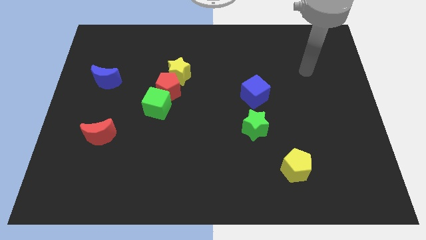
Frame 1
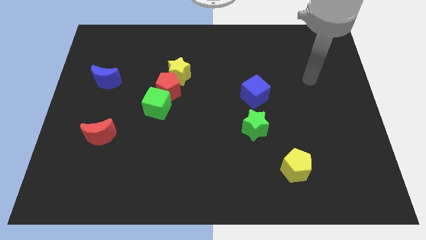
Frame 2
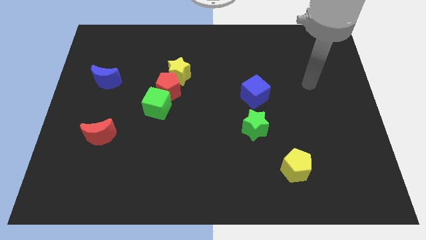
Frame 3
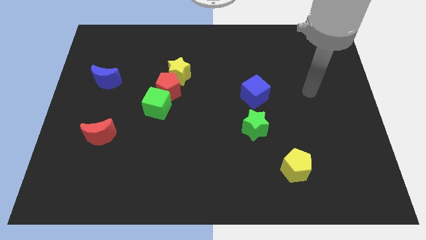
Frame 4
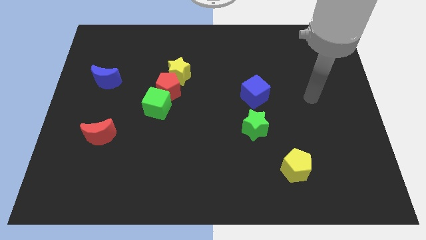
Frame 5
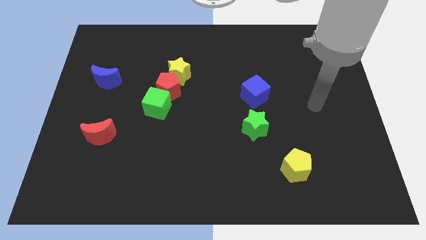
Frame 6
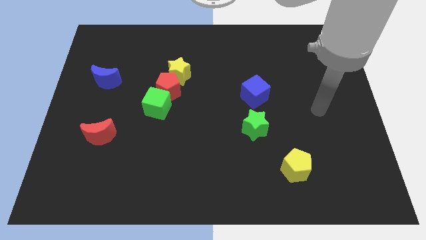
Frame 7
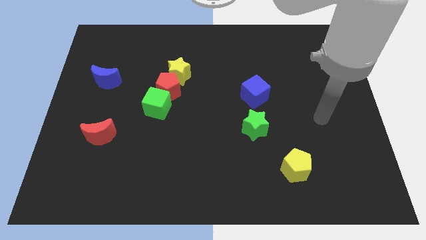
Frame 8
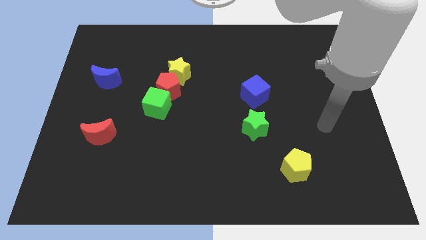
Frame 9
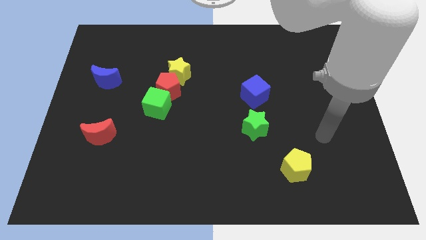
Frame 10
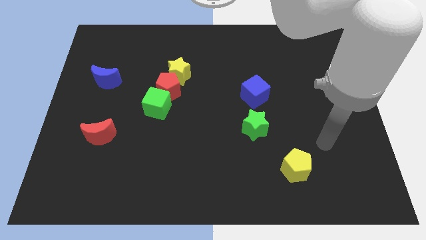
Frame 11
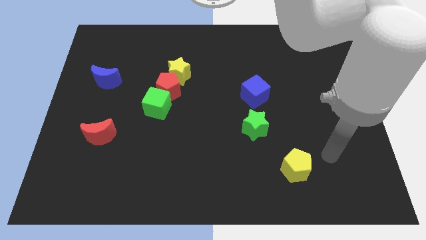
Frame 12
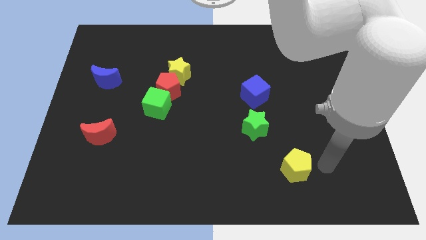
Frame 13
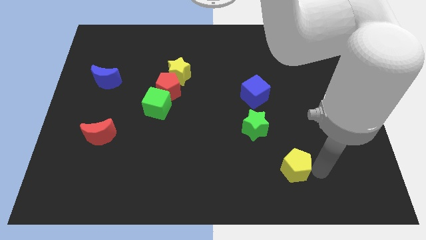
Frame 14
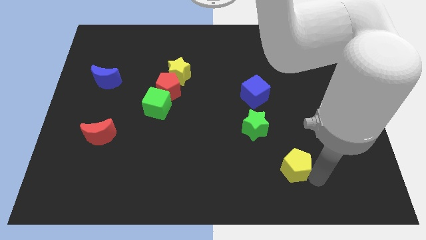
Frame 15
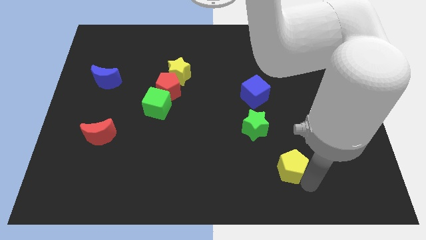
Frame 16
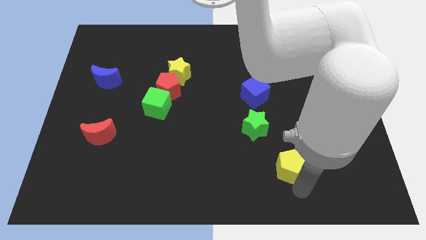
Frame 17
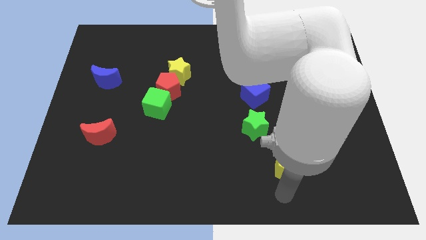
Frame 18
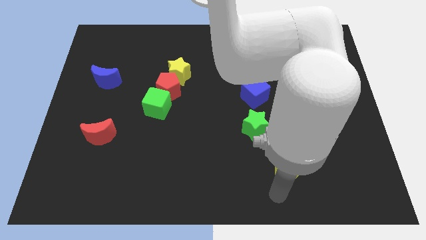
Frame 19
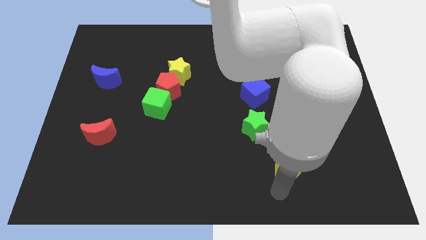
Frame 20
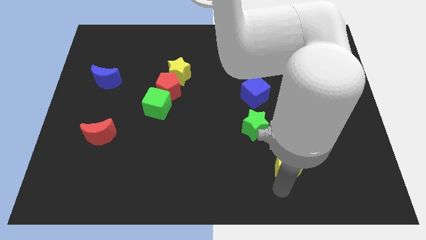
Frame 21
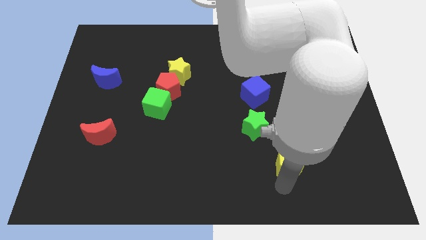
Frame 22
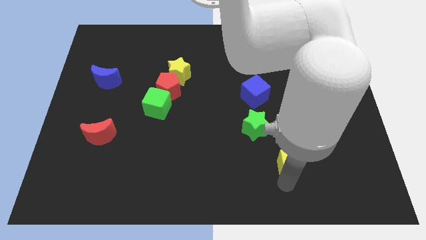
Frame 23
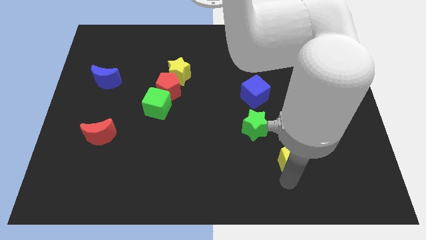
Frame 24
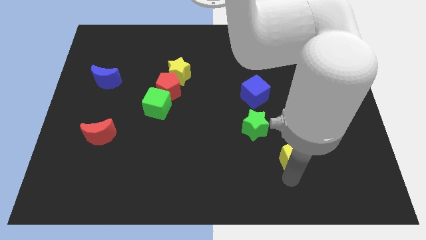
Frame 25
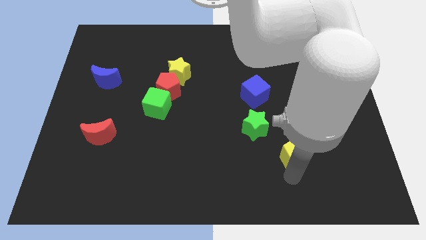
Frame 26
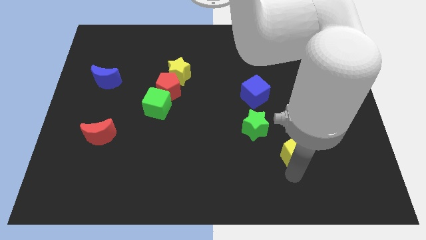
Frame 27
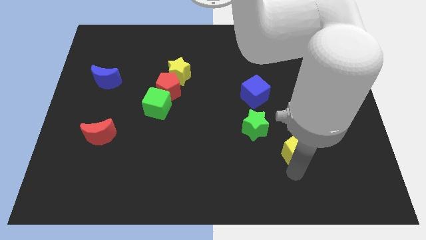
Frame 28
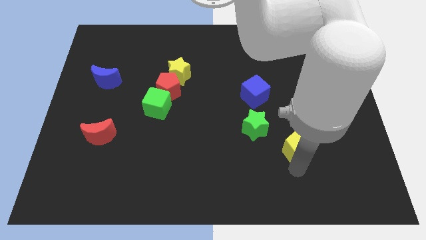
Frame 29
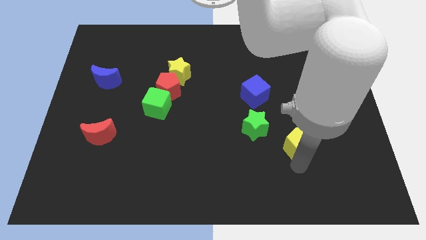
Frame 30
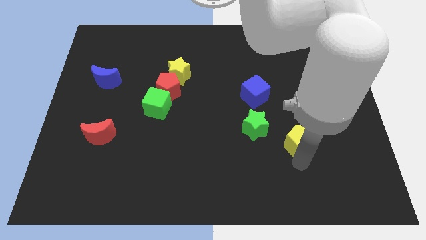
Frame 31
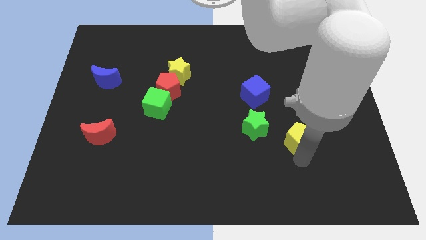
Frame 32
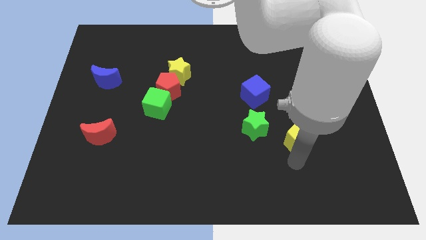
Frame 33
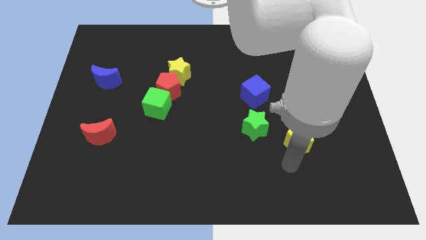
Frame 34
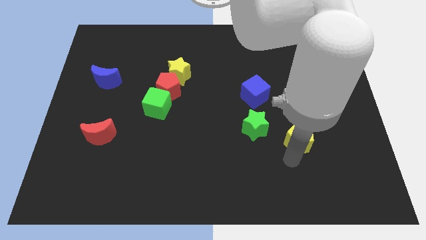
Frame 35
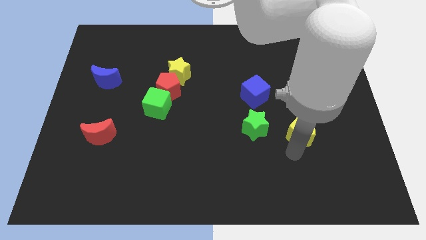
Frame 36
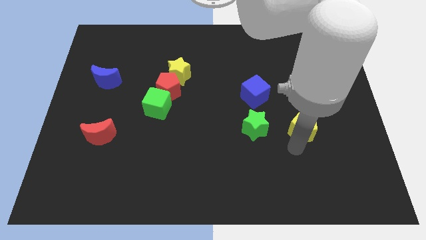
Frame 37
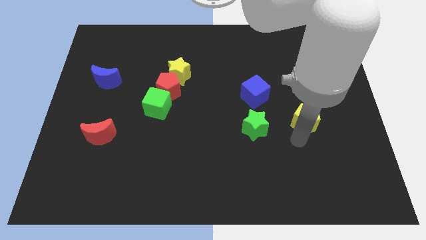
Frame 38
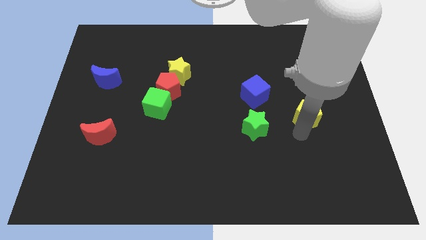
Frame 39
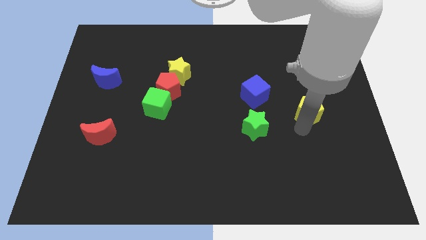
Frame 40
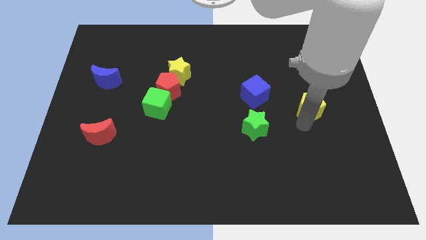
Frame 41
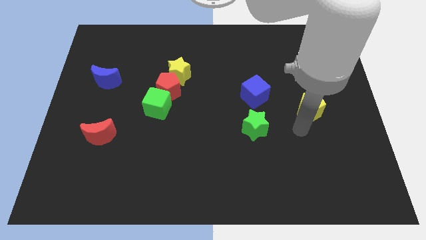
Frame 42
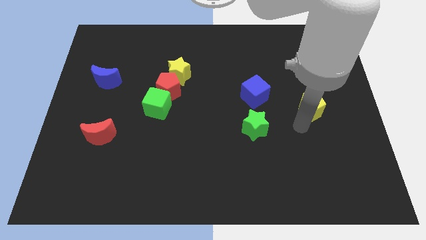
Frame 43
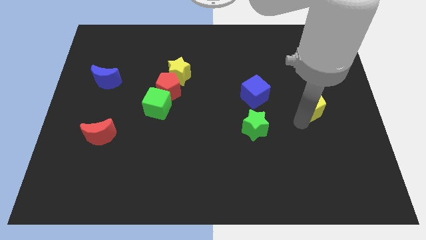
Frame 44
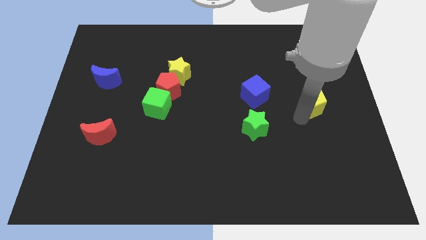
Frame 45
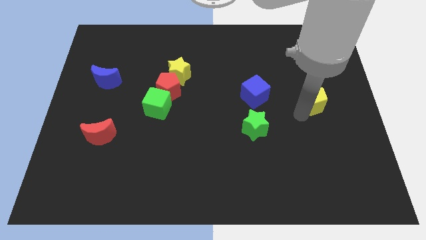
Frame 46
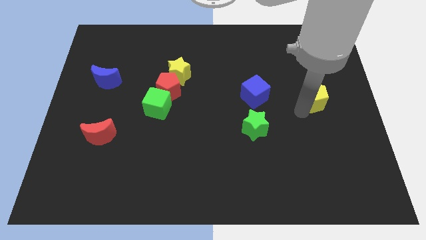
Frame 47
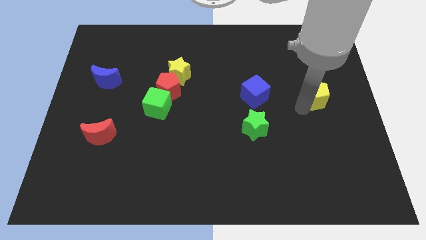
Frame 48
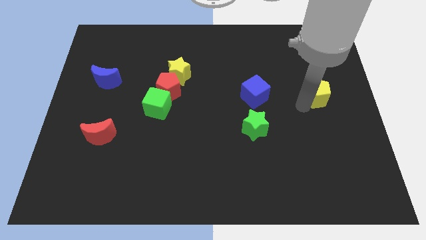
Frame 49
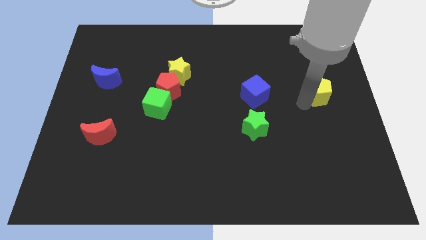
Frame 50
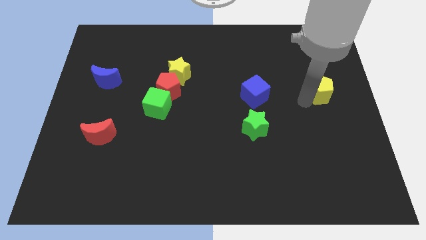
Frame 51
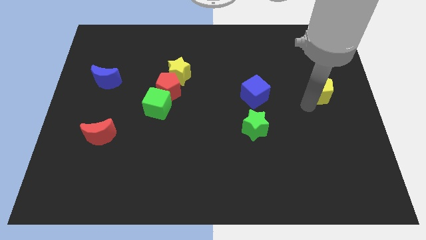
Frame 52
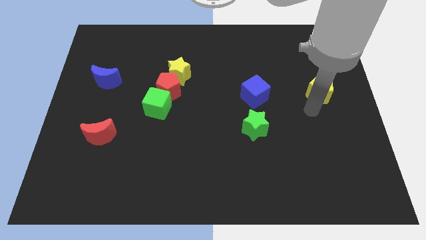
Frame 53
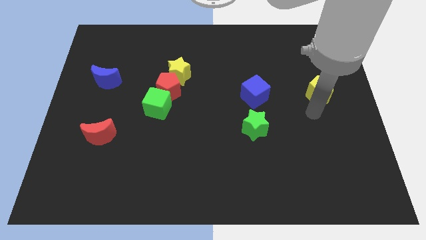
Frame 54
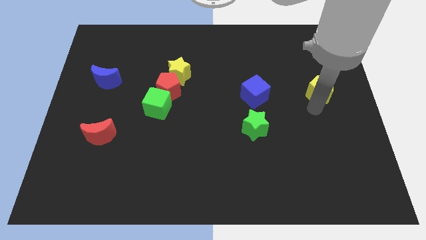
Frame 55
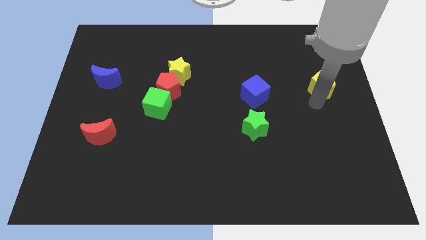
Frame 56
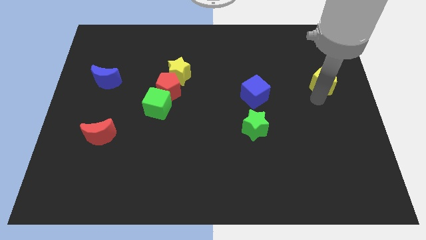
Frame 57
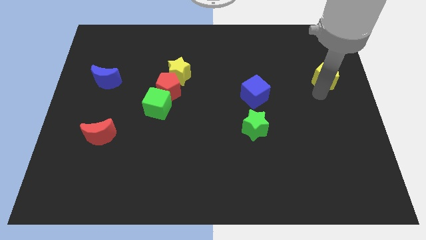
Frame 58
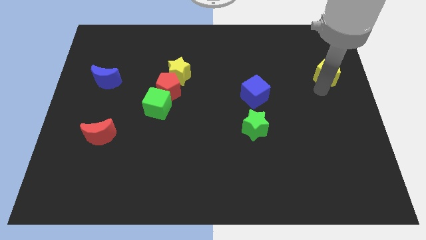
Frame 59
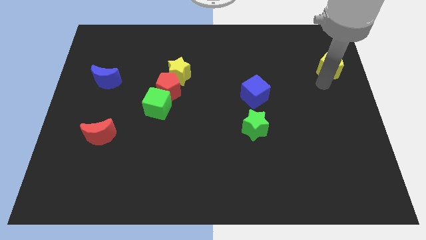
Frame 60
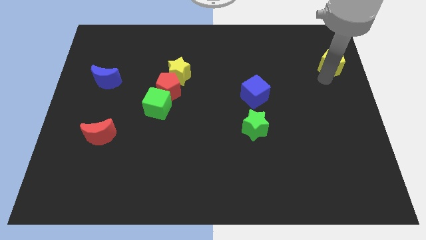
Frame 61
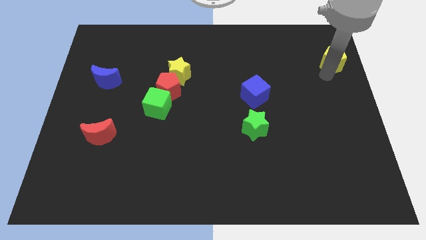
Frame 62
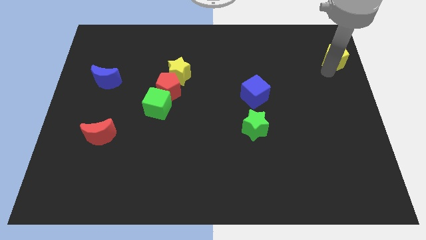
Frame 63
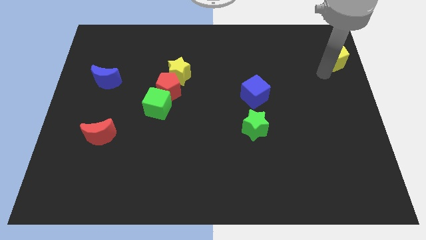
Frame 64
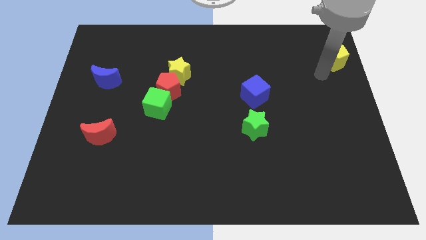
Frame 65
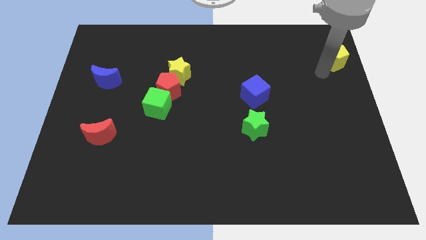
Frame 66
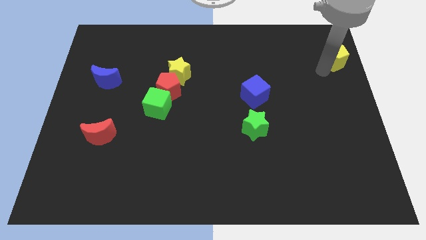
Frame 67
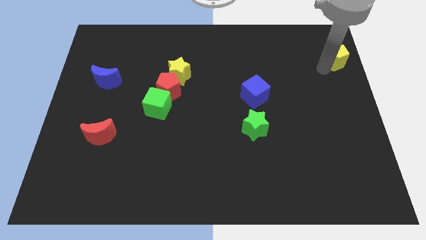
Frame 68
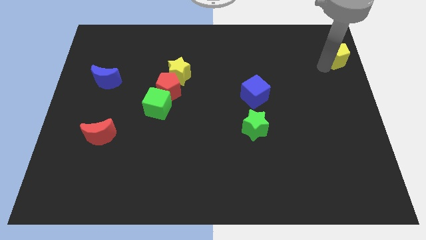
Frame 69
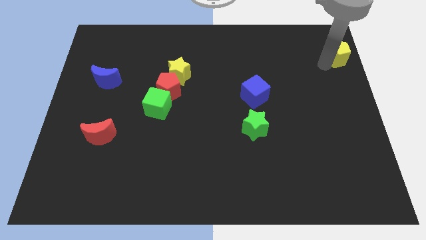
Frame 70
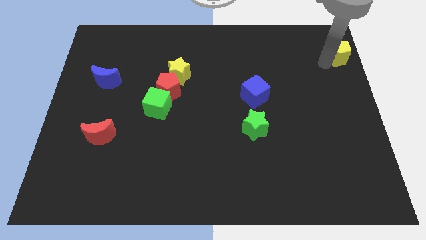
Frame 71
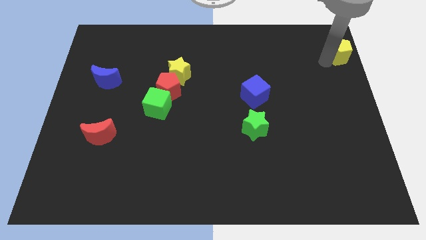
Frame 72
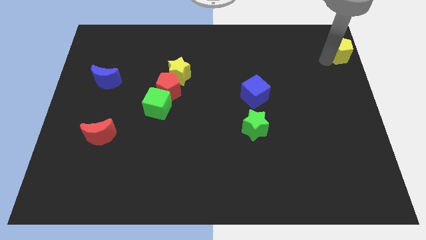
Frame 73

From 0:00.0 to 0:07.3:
push the yellow pentagon to the top right corner
